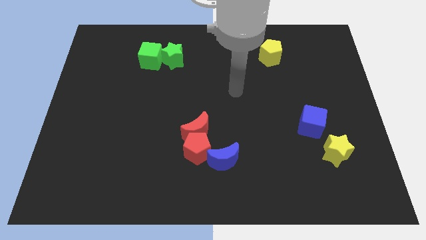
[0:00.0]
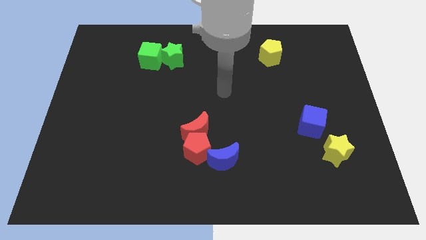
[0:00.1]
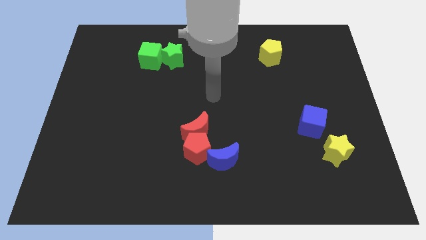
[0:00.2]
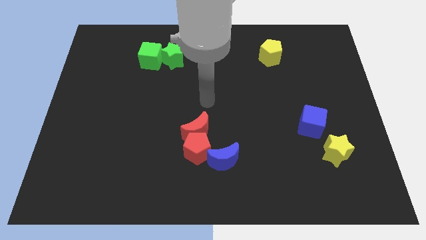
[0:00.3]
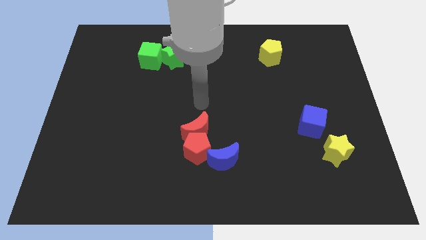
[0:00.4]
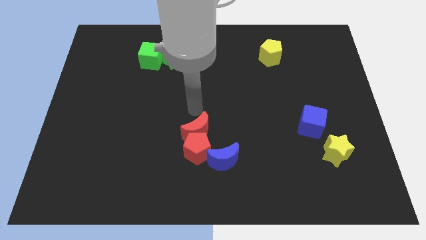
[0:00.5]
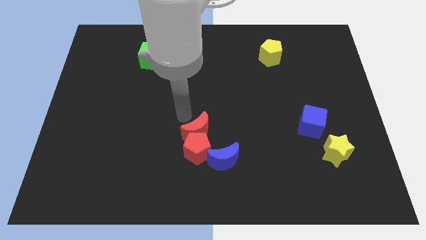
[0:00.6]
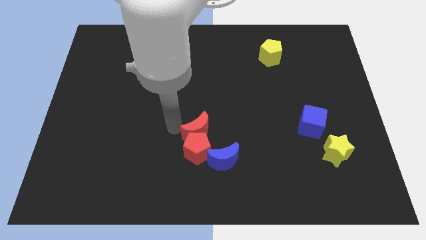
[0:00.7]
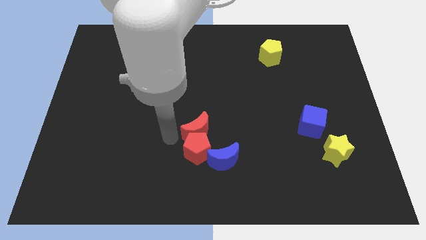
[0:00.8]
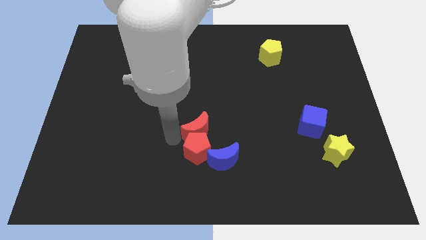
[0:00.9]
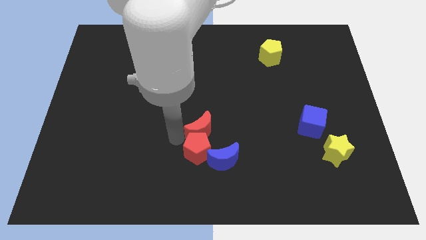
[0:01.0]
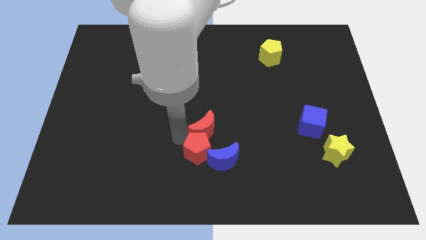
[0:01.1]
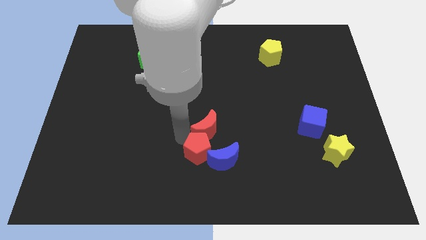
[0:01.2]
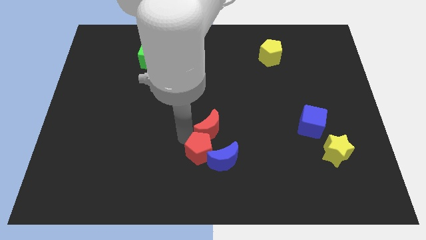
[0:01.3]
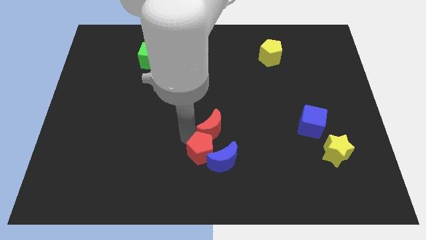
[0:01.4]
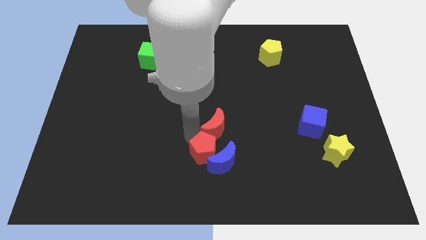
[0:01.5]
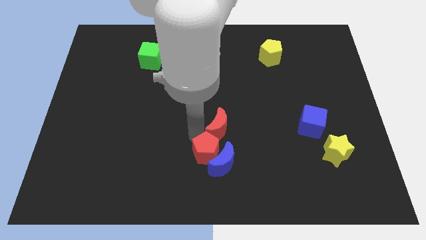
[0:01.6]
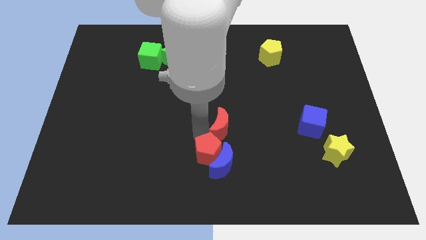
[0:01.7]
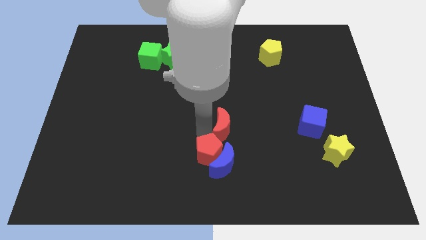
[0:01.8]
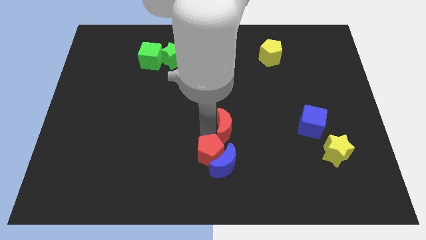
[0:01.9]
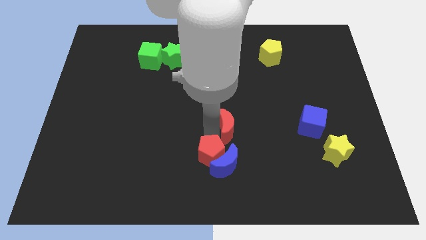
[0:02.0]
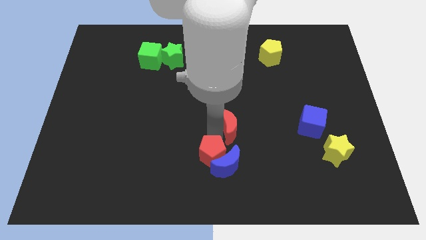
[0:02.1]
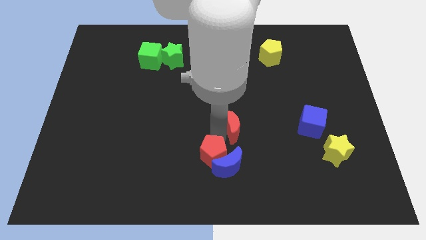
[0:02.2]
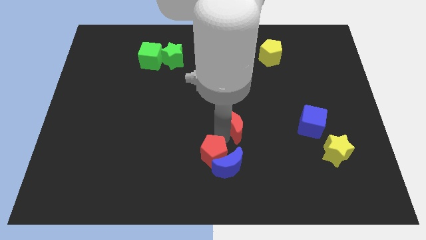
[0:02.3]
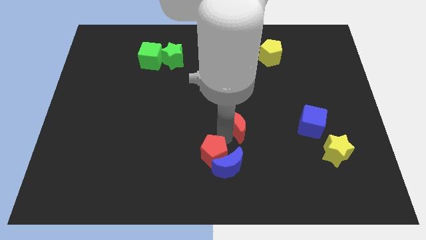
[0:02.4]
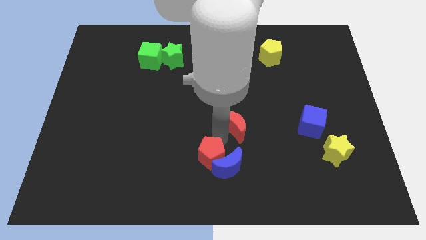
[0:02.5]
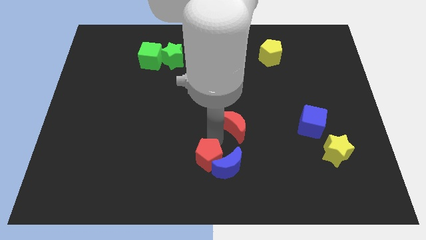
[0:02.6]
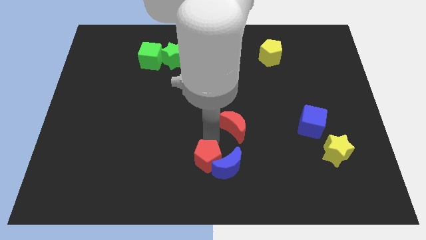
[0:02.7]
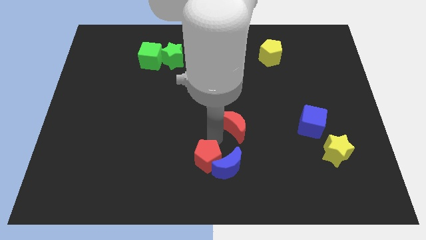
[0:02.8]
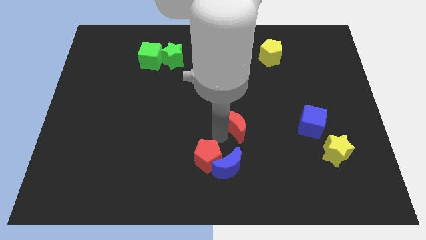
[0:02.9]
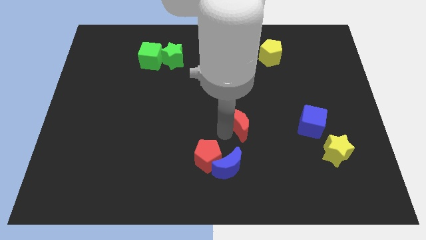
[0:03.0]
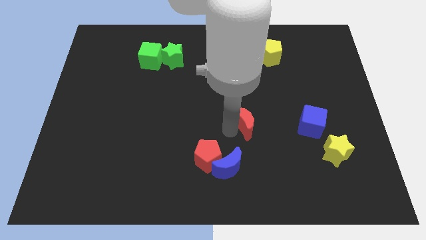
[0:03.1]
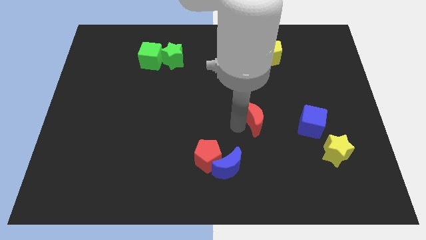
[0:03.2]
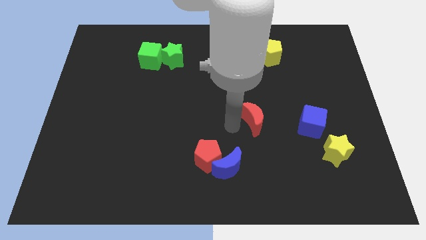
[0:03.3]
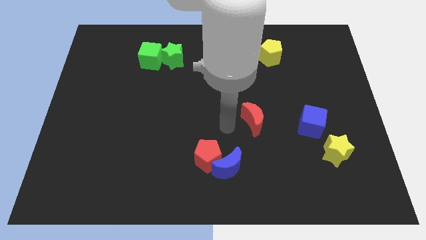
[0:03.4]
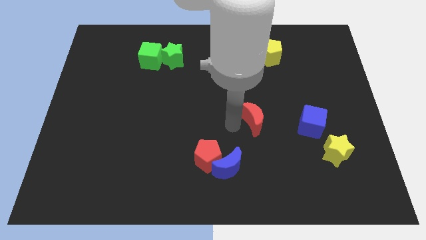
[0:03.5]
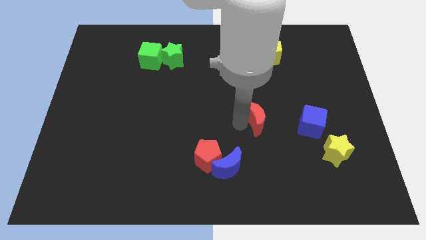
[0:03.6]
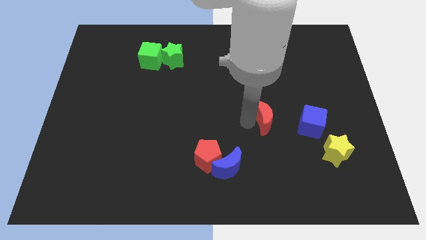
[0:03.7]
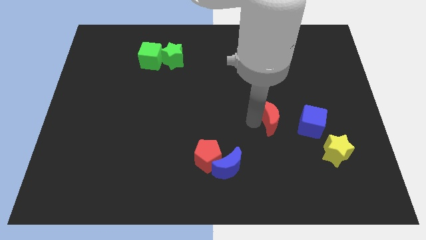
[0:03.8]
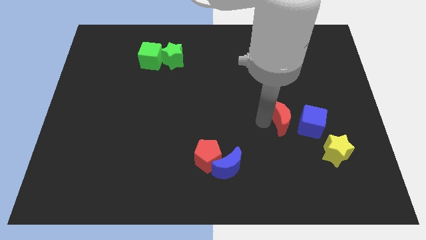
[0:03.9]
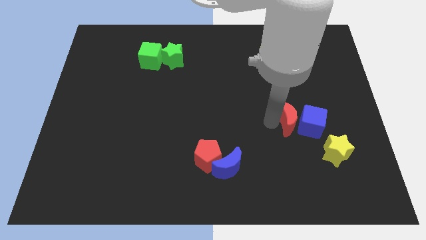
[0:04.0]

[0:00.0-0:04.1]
move the red moon to the right

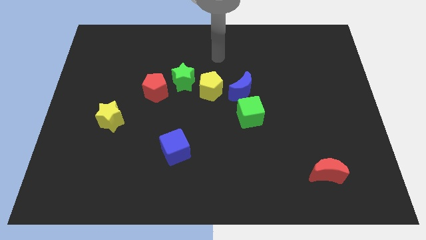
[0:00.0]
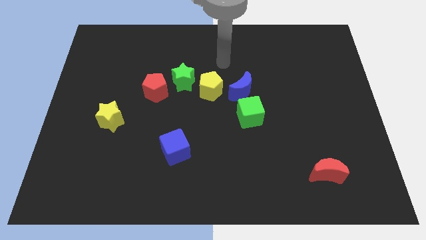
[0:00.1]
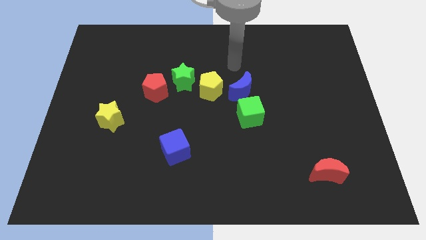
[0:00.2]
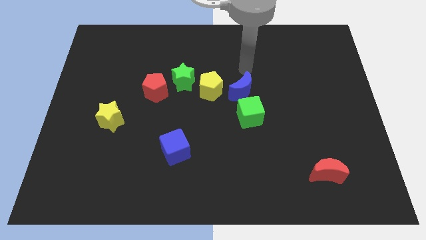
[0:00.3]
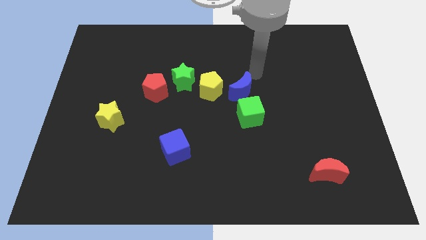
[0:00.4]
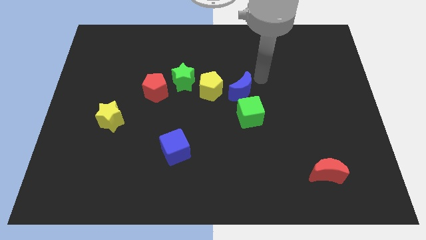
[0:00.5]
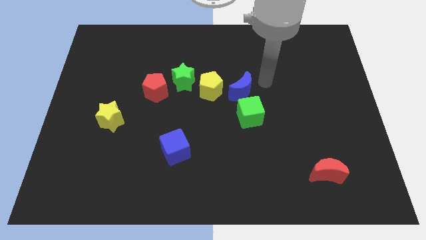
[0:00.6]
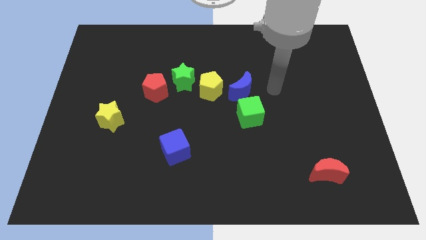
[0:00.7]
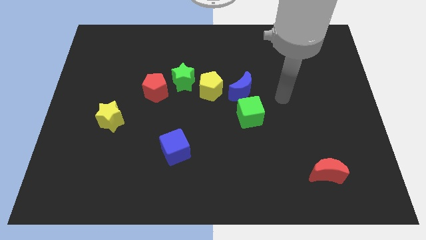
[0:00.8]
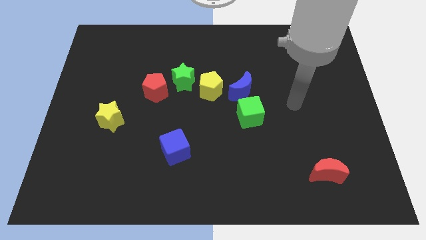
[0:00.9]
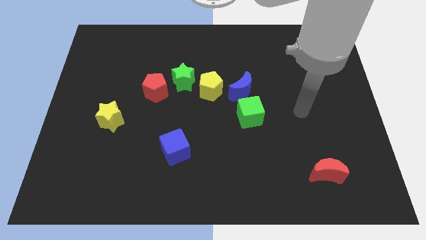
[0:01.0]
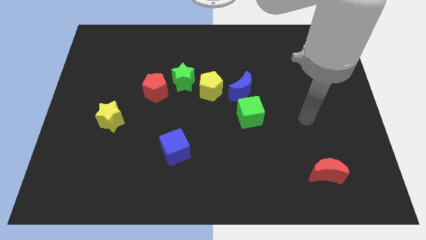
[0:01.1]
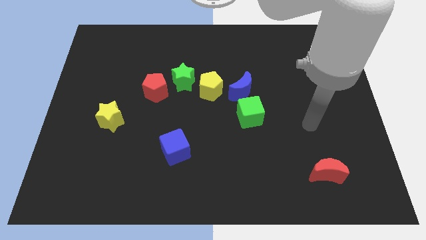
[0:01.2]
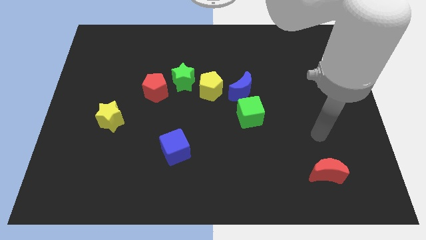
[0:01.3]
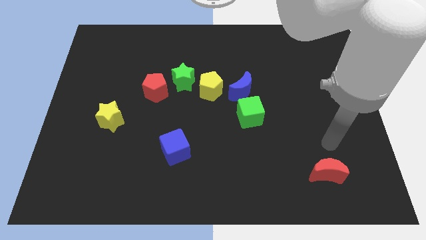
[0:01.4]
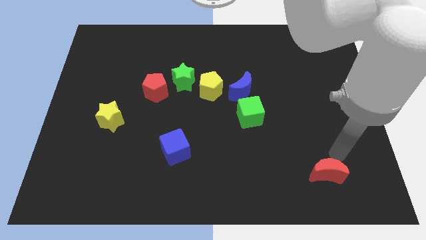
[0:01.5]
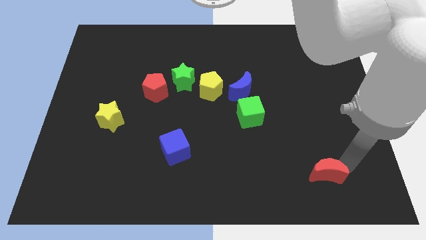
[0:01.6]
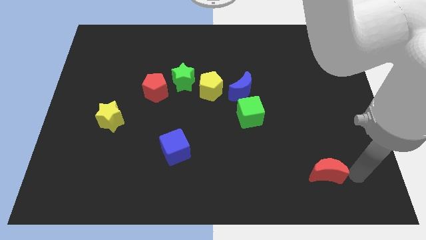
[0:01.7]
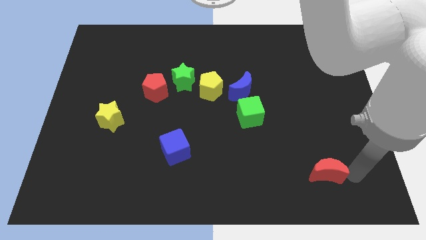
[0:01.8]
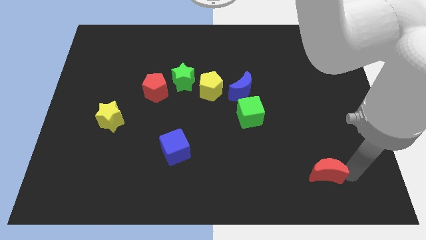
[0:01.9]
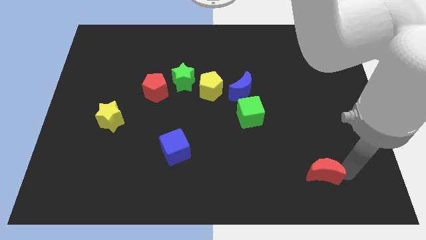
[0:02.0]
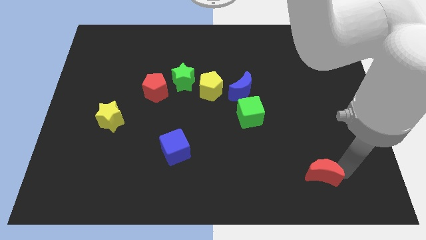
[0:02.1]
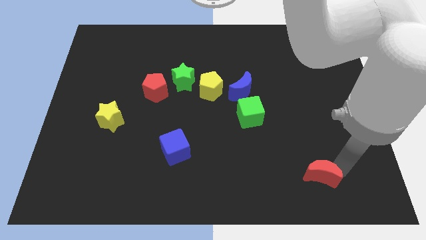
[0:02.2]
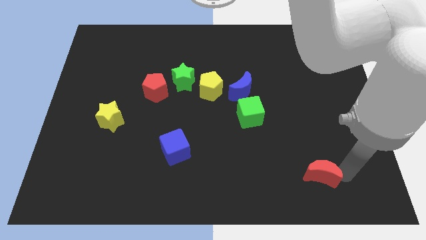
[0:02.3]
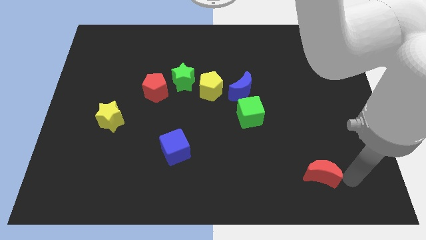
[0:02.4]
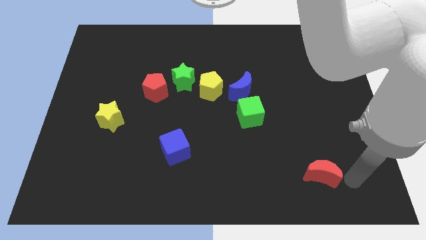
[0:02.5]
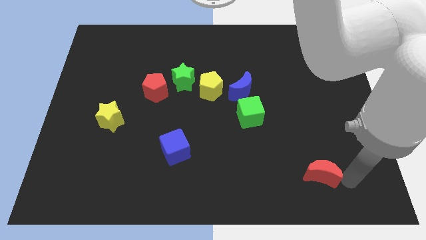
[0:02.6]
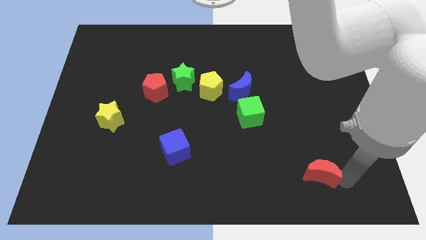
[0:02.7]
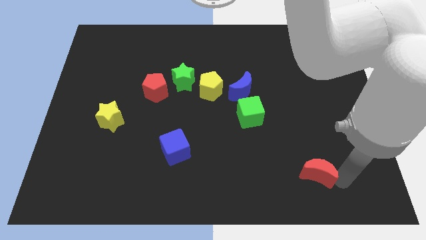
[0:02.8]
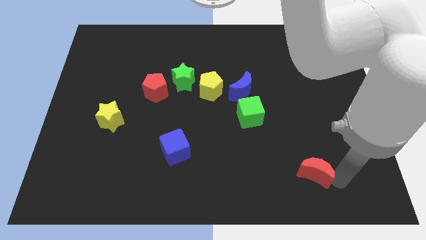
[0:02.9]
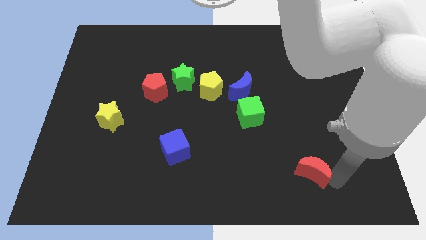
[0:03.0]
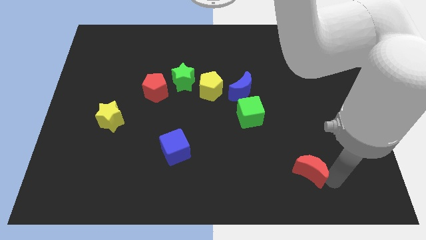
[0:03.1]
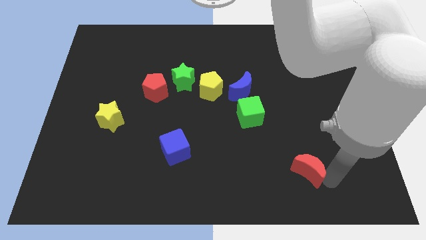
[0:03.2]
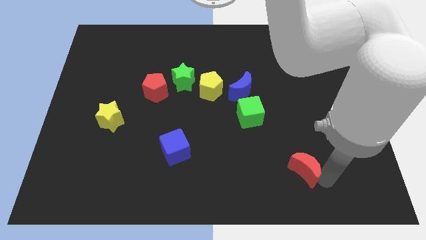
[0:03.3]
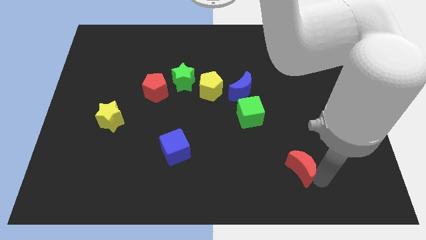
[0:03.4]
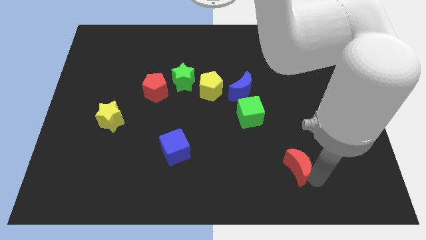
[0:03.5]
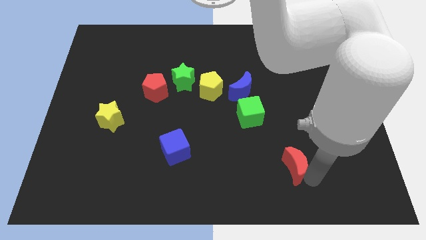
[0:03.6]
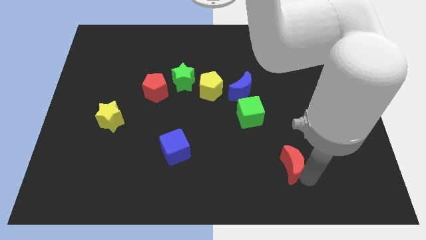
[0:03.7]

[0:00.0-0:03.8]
move the red moon left a little bit

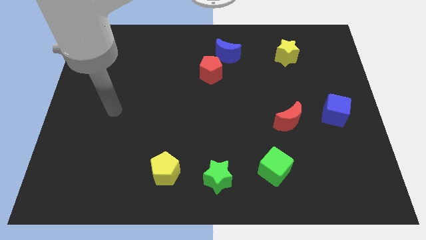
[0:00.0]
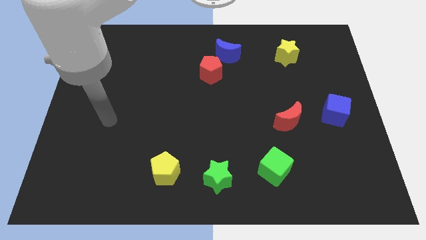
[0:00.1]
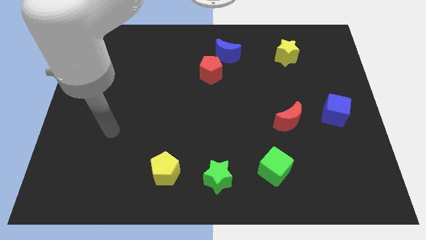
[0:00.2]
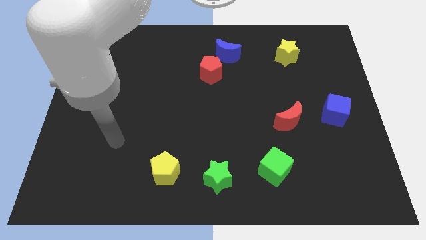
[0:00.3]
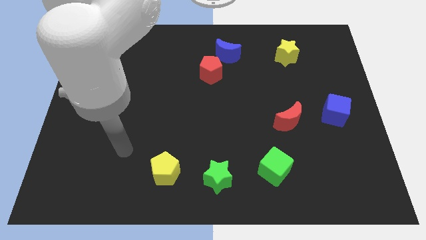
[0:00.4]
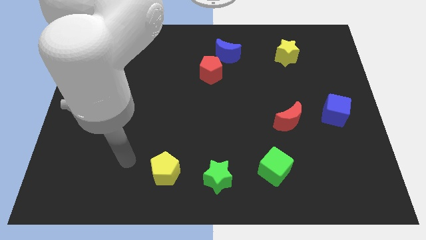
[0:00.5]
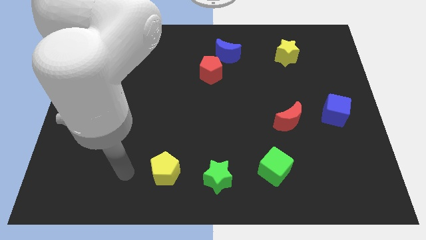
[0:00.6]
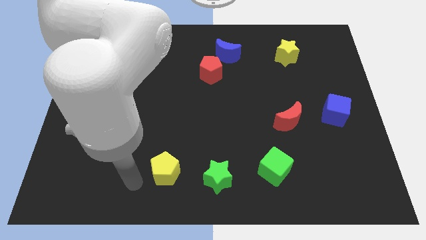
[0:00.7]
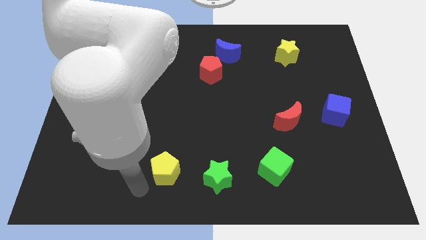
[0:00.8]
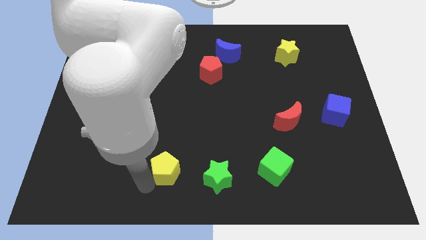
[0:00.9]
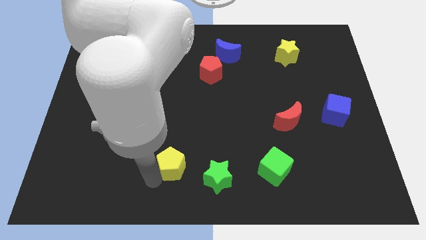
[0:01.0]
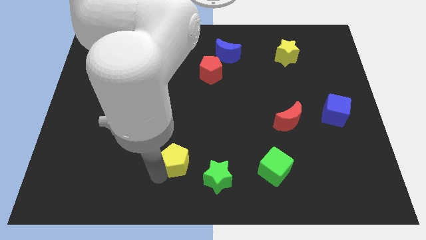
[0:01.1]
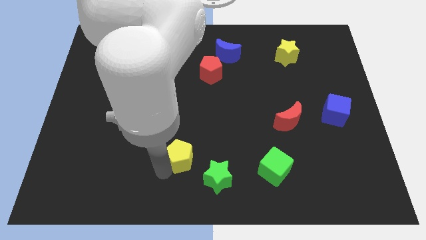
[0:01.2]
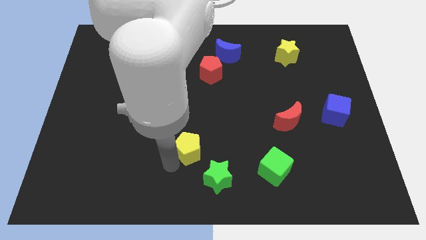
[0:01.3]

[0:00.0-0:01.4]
slightly slide the yellow pentagon up and to the right diagonally
